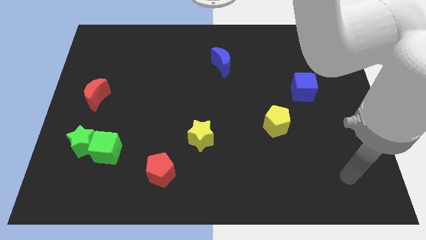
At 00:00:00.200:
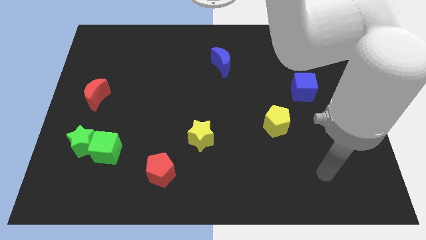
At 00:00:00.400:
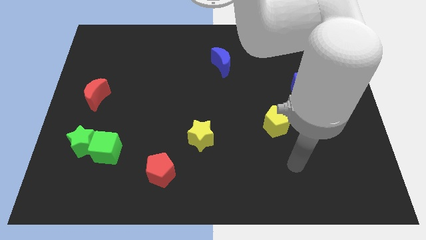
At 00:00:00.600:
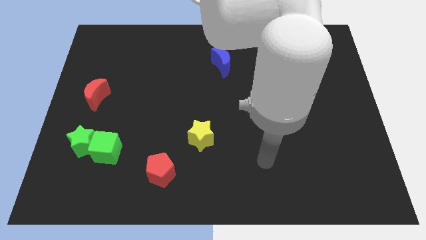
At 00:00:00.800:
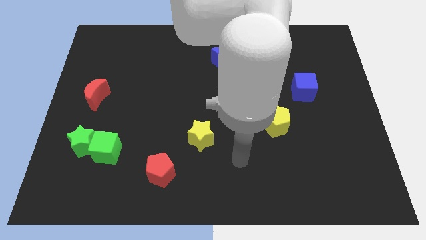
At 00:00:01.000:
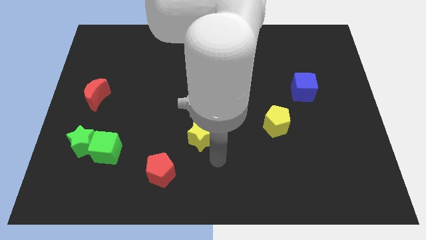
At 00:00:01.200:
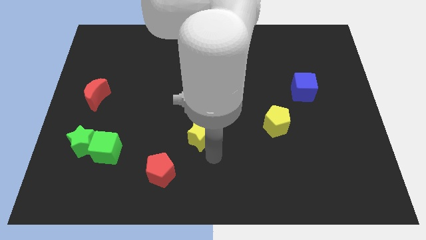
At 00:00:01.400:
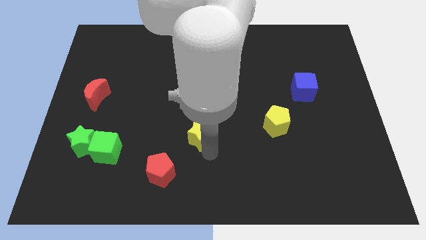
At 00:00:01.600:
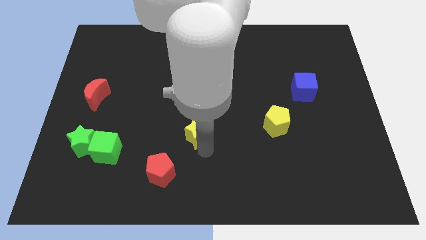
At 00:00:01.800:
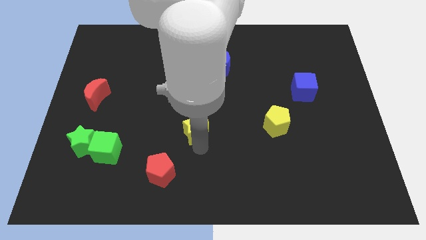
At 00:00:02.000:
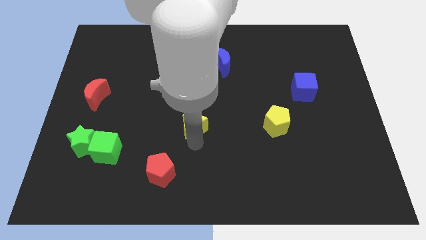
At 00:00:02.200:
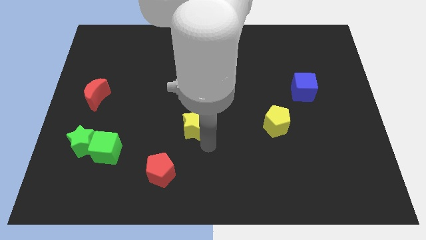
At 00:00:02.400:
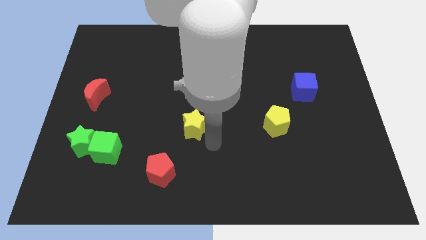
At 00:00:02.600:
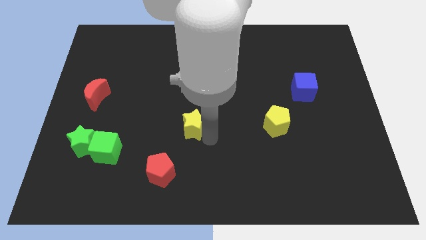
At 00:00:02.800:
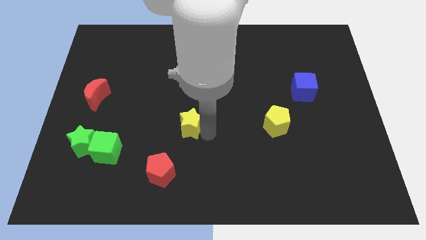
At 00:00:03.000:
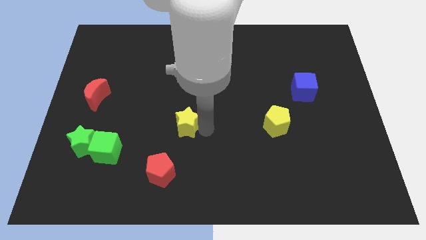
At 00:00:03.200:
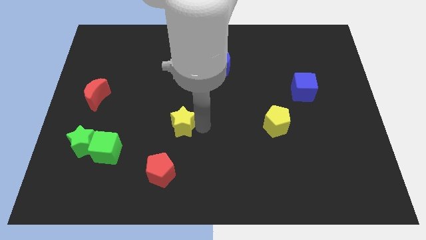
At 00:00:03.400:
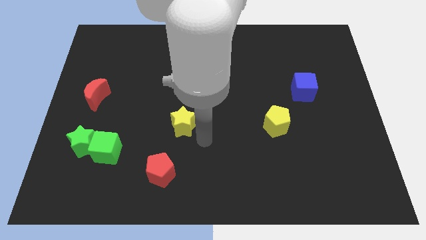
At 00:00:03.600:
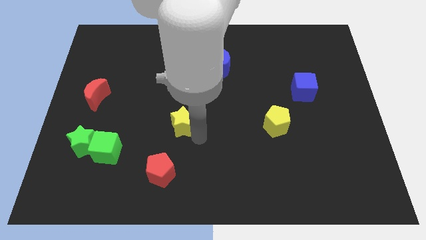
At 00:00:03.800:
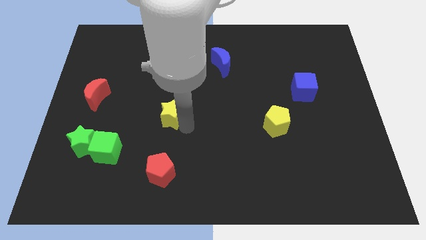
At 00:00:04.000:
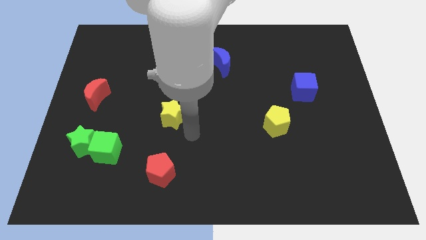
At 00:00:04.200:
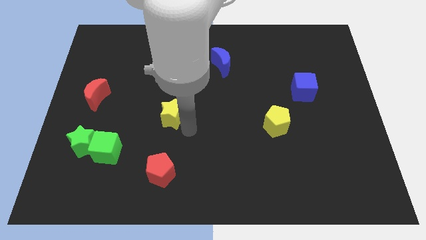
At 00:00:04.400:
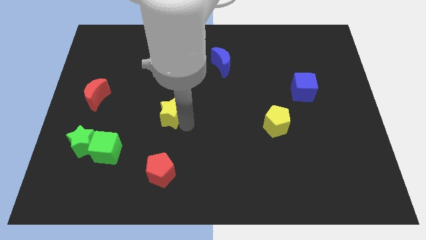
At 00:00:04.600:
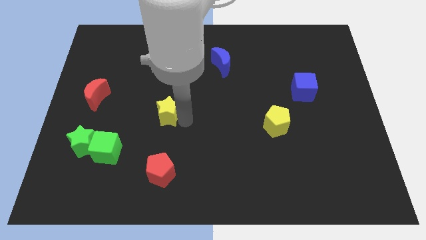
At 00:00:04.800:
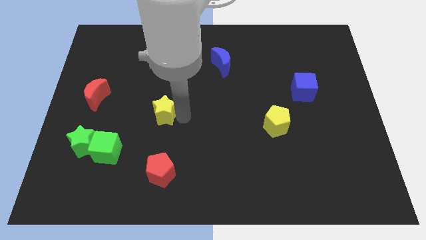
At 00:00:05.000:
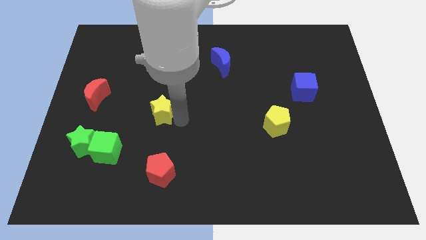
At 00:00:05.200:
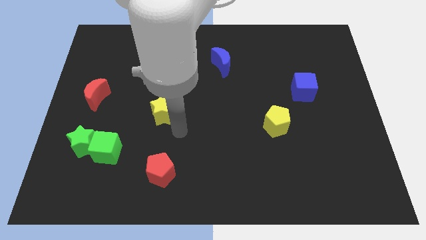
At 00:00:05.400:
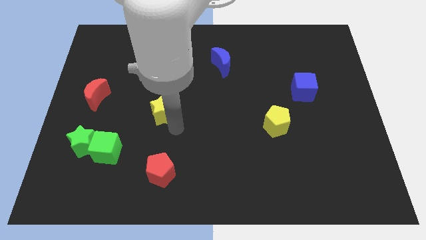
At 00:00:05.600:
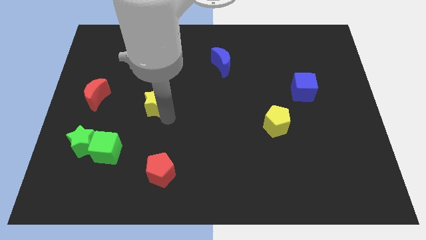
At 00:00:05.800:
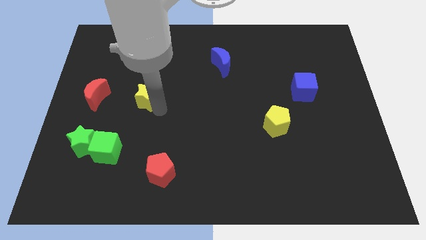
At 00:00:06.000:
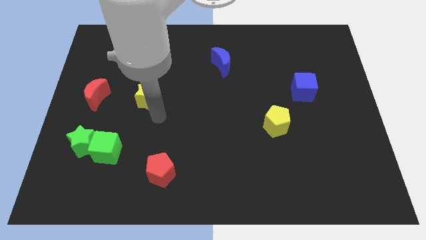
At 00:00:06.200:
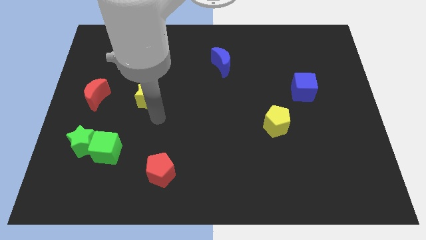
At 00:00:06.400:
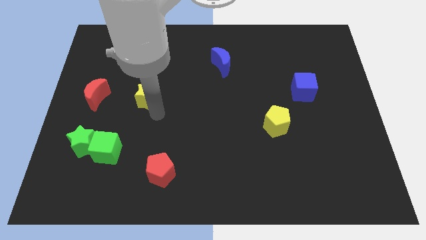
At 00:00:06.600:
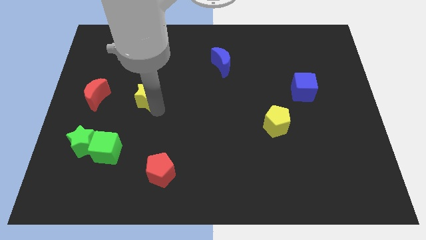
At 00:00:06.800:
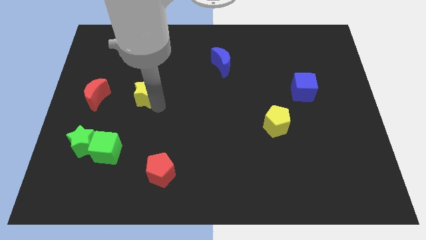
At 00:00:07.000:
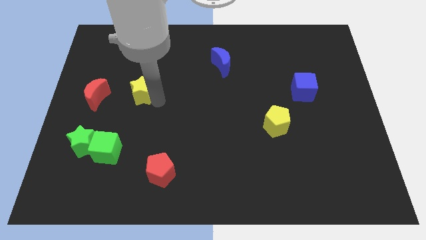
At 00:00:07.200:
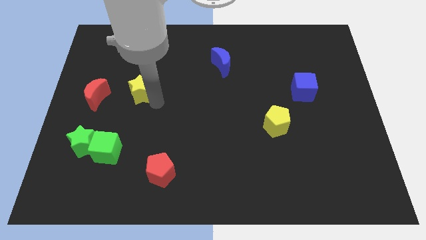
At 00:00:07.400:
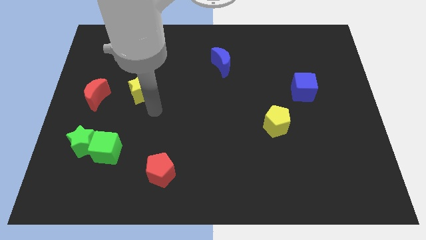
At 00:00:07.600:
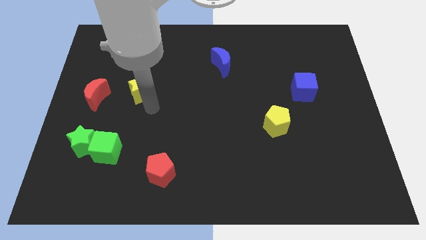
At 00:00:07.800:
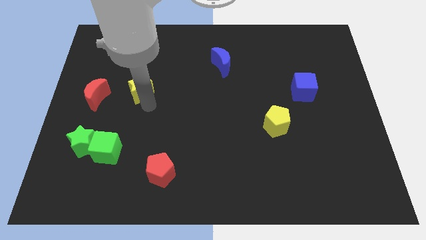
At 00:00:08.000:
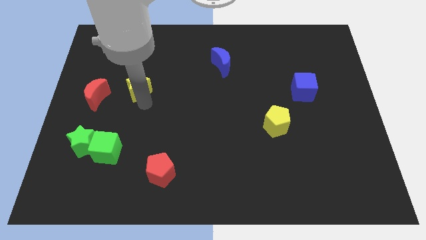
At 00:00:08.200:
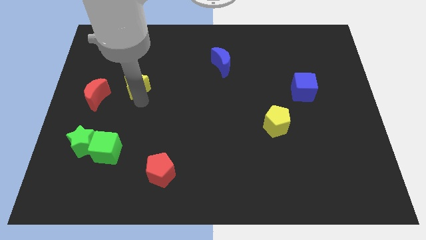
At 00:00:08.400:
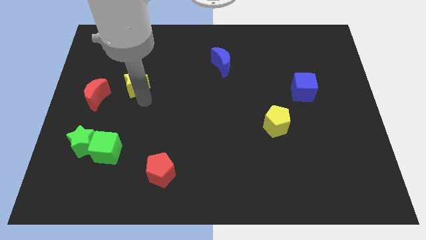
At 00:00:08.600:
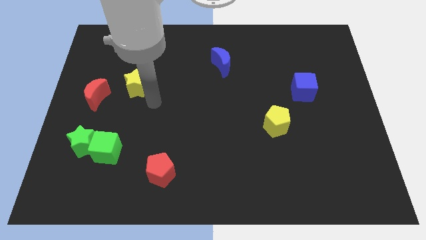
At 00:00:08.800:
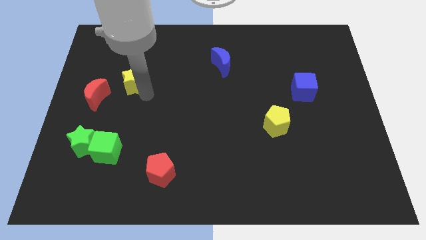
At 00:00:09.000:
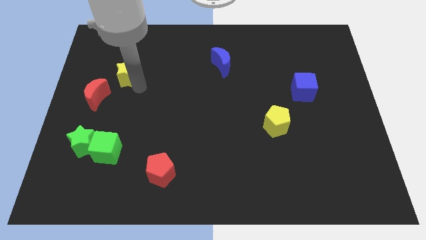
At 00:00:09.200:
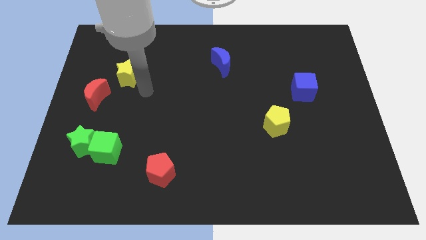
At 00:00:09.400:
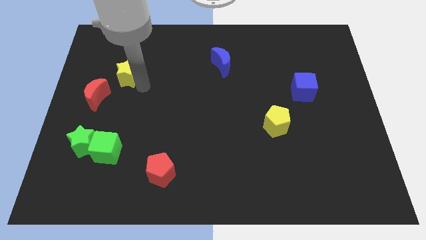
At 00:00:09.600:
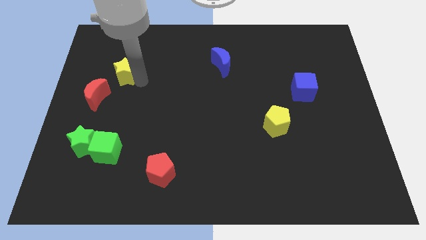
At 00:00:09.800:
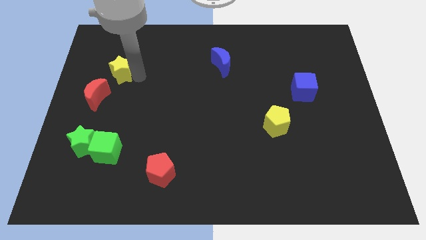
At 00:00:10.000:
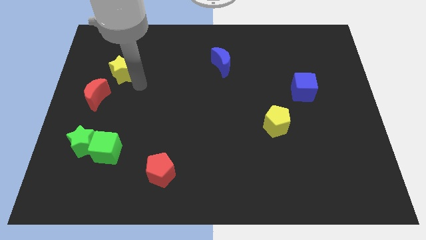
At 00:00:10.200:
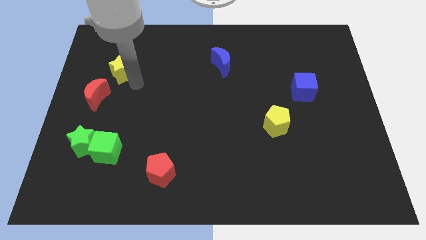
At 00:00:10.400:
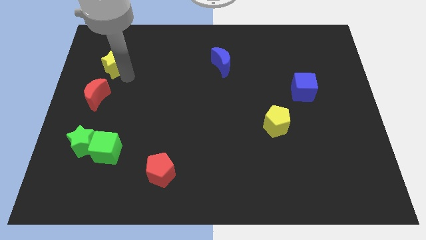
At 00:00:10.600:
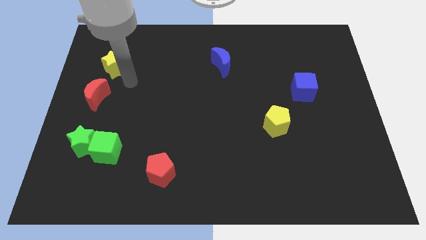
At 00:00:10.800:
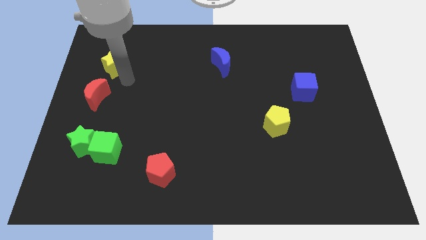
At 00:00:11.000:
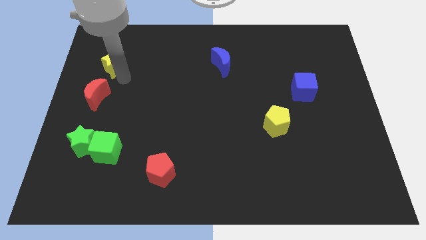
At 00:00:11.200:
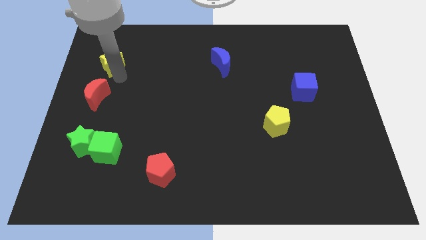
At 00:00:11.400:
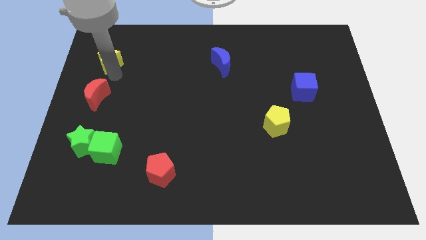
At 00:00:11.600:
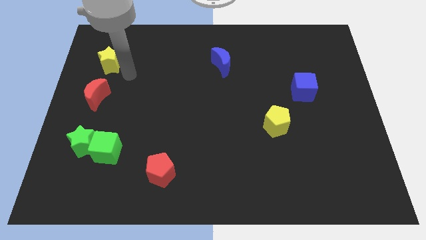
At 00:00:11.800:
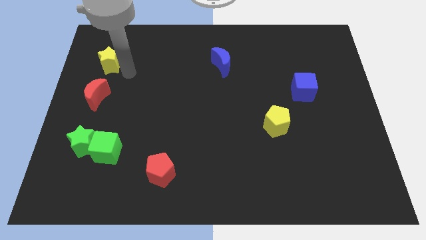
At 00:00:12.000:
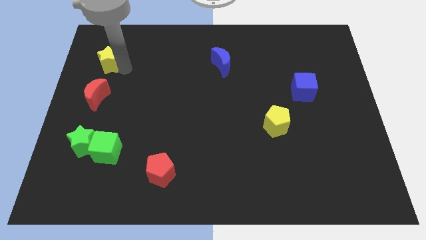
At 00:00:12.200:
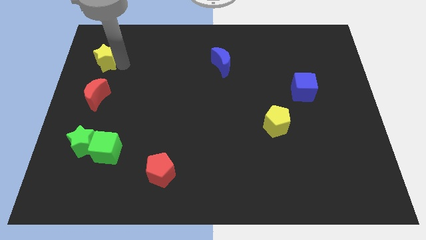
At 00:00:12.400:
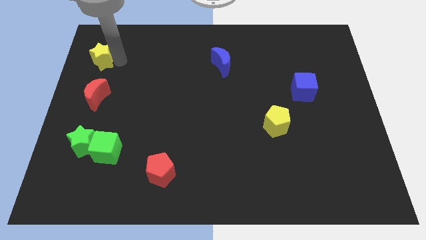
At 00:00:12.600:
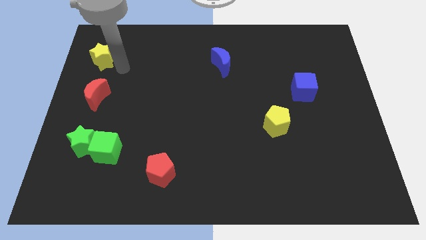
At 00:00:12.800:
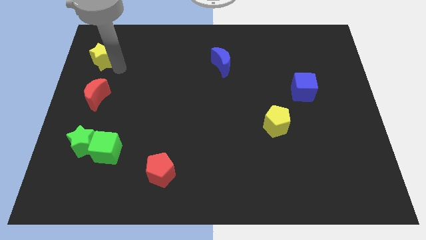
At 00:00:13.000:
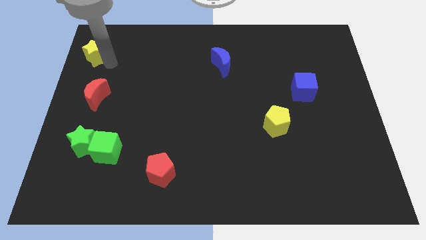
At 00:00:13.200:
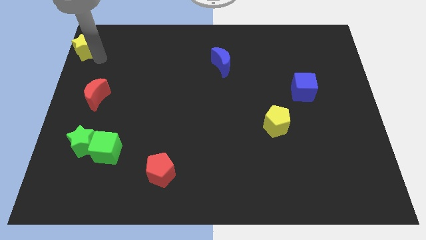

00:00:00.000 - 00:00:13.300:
move the yellow star to the top left of the board
